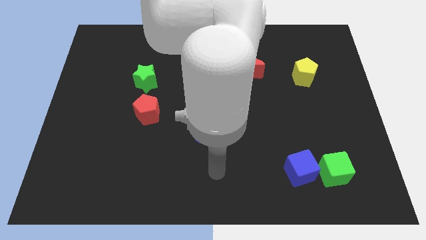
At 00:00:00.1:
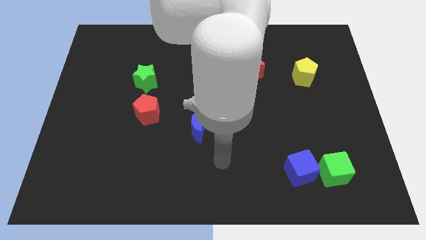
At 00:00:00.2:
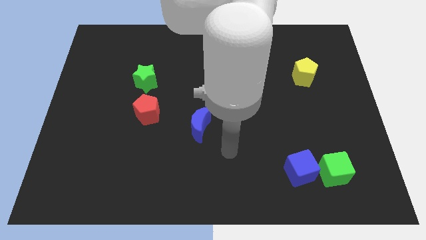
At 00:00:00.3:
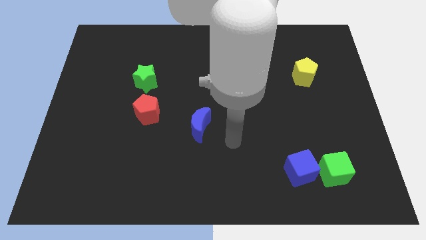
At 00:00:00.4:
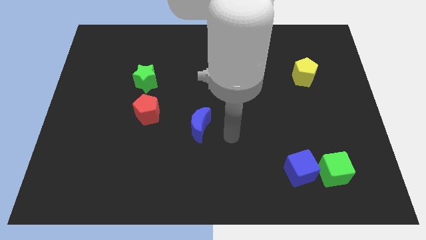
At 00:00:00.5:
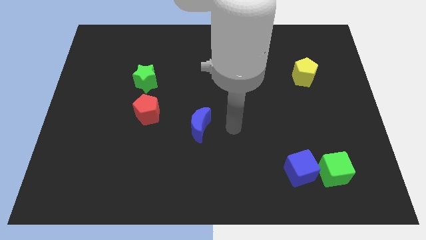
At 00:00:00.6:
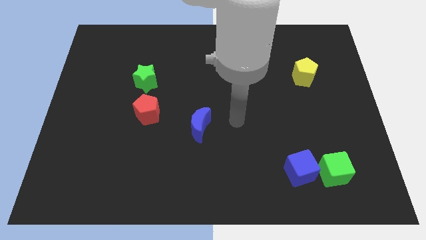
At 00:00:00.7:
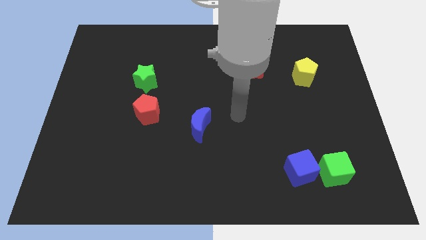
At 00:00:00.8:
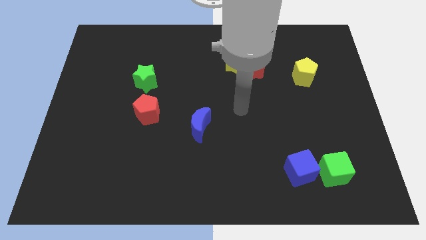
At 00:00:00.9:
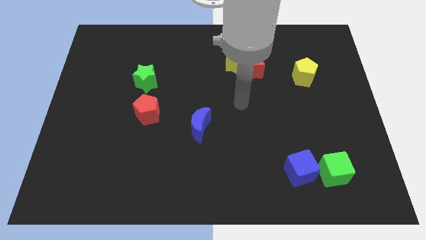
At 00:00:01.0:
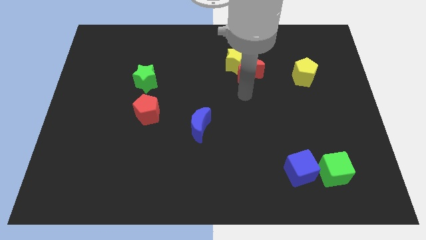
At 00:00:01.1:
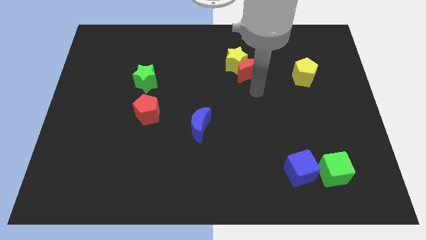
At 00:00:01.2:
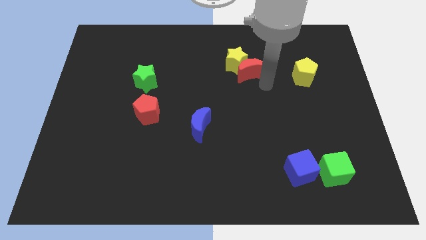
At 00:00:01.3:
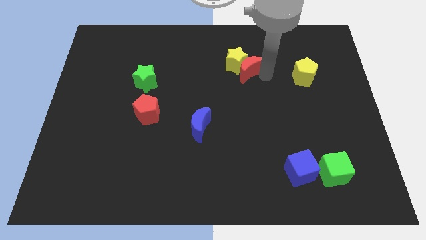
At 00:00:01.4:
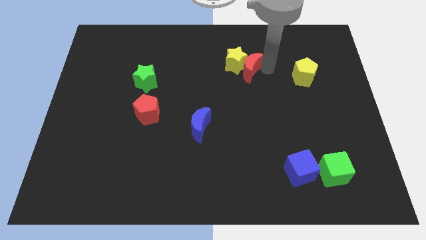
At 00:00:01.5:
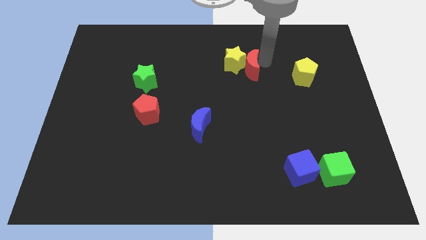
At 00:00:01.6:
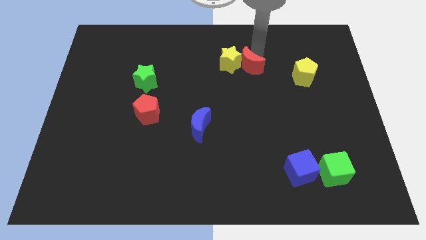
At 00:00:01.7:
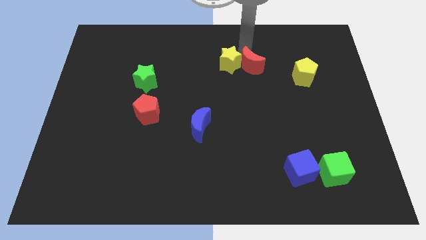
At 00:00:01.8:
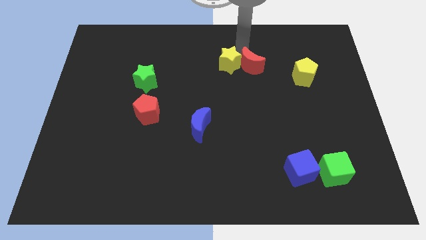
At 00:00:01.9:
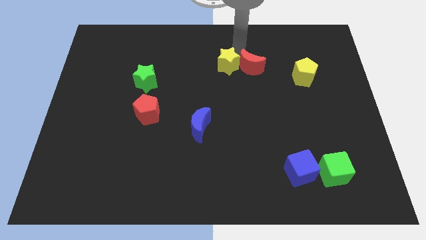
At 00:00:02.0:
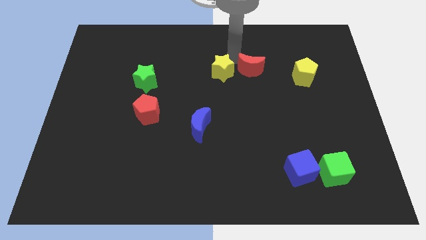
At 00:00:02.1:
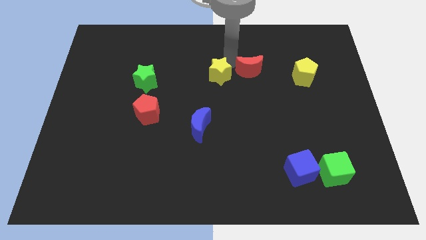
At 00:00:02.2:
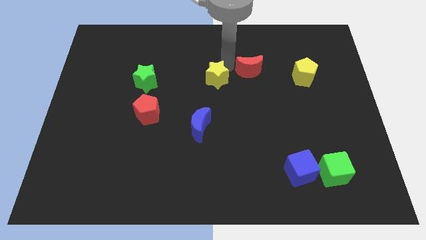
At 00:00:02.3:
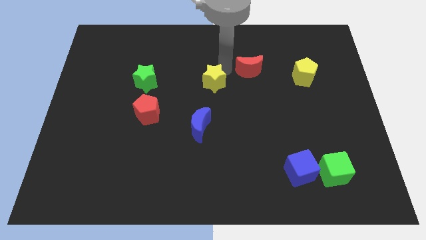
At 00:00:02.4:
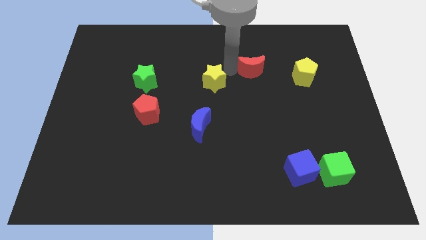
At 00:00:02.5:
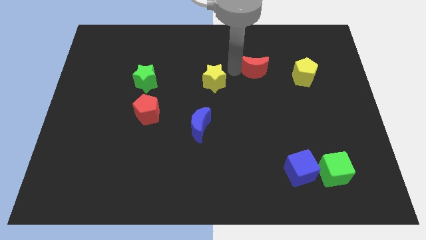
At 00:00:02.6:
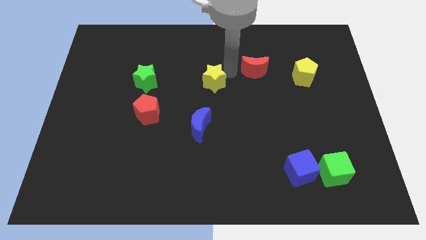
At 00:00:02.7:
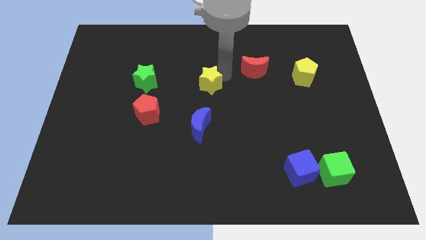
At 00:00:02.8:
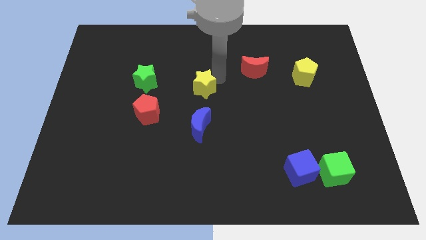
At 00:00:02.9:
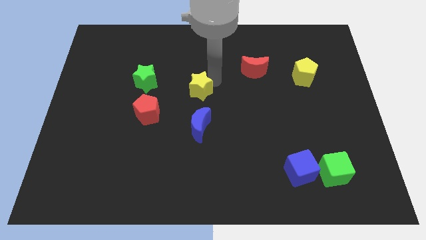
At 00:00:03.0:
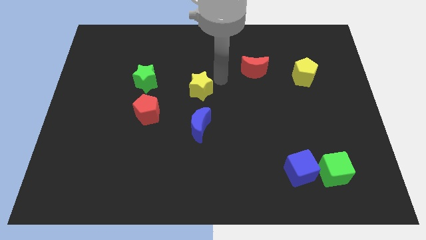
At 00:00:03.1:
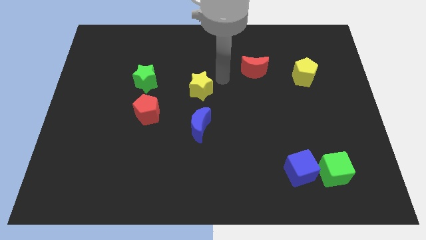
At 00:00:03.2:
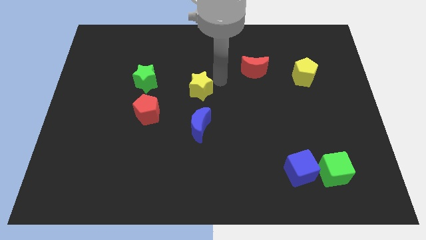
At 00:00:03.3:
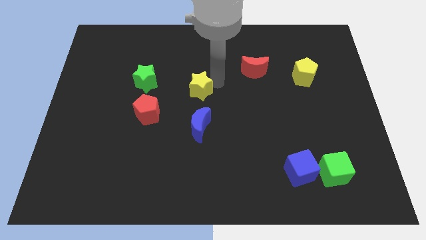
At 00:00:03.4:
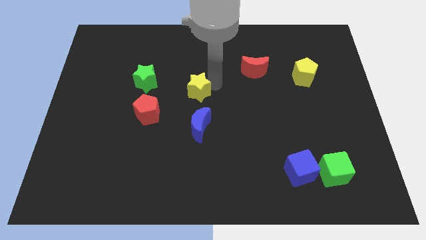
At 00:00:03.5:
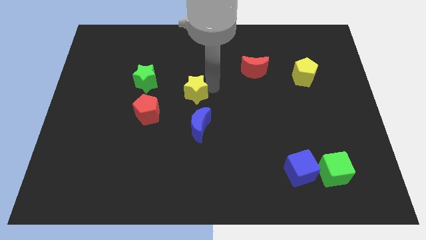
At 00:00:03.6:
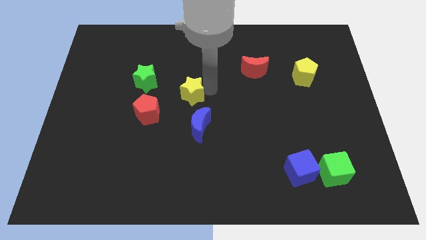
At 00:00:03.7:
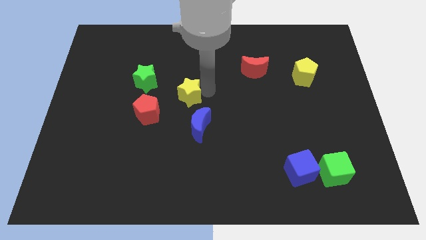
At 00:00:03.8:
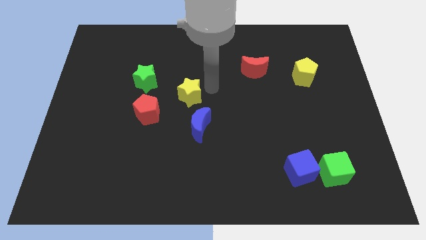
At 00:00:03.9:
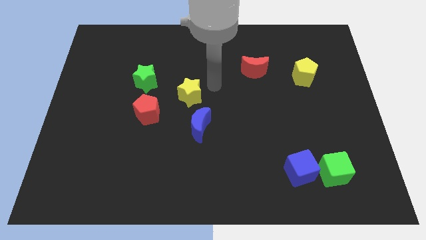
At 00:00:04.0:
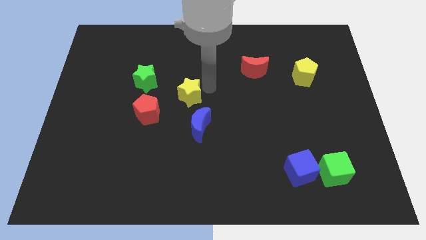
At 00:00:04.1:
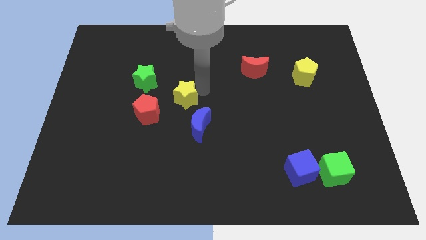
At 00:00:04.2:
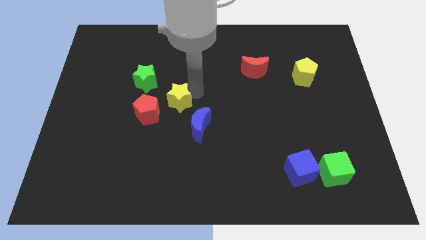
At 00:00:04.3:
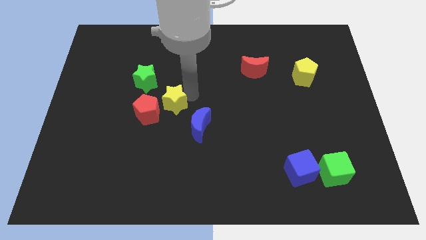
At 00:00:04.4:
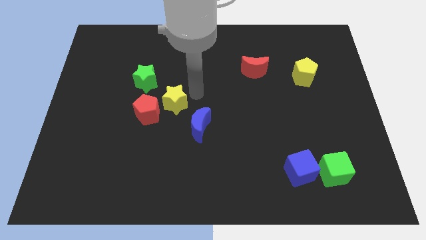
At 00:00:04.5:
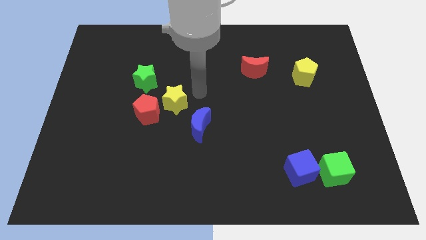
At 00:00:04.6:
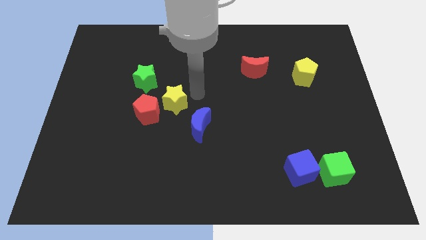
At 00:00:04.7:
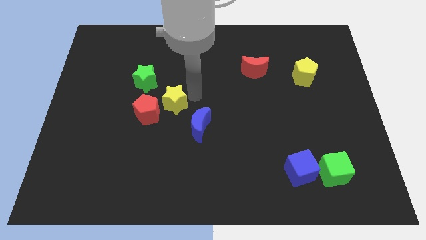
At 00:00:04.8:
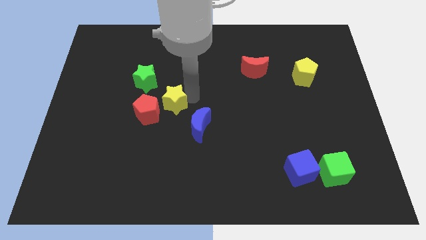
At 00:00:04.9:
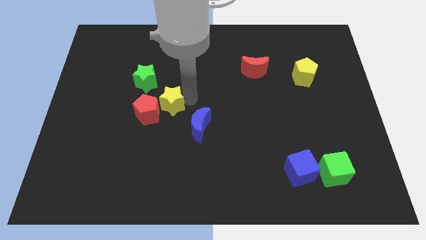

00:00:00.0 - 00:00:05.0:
push the yellow star next to the red pentagon

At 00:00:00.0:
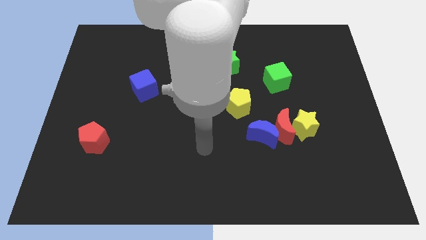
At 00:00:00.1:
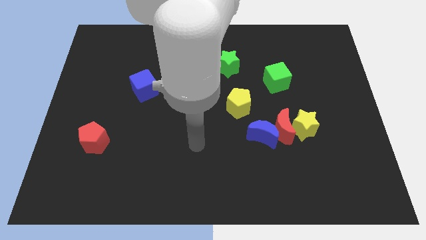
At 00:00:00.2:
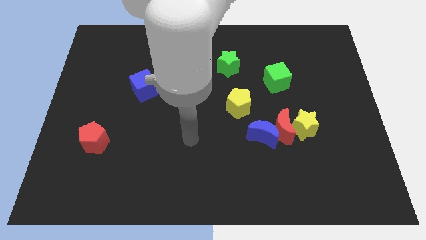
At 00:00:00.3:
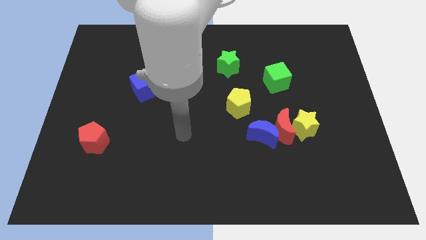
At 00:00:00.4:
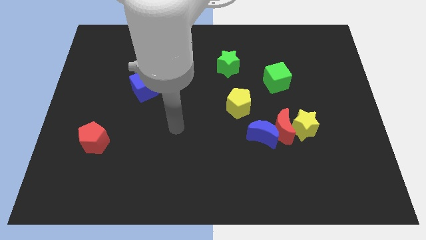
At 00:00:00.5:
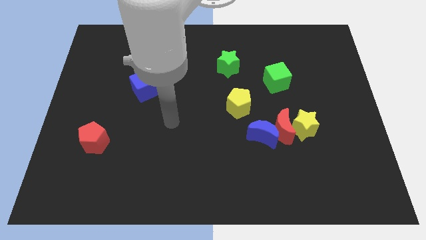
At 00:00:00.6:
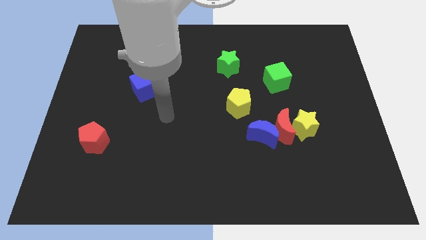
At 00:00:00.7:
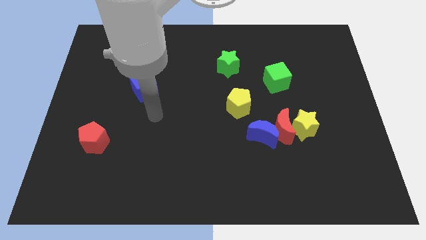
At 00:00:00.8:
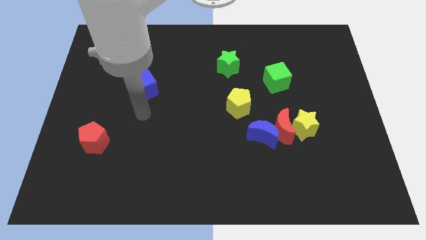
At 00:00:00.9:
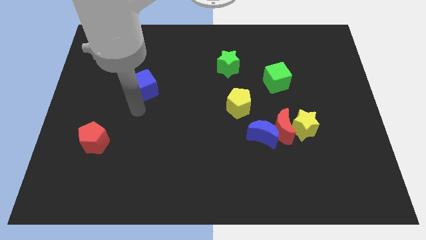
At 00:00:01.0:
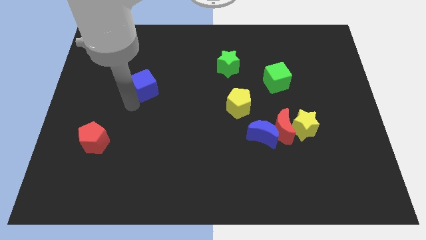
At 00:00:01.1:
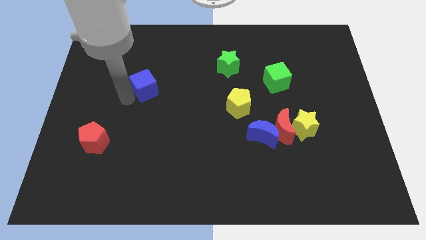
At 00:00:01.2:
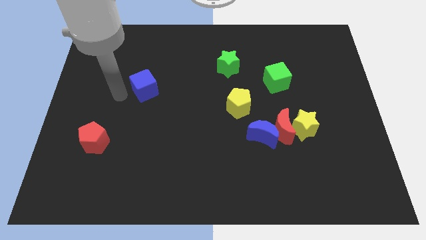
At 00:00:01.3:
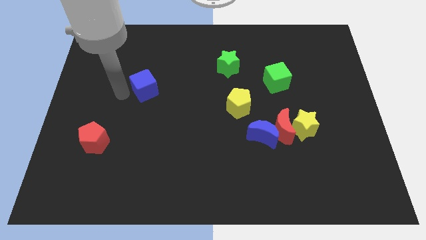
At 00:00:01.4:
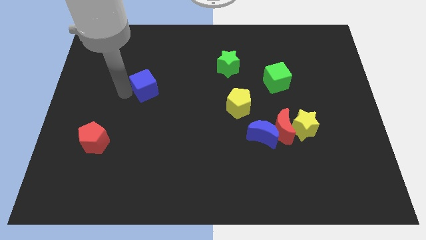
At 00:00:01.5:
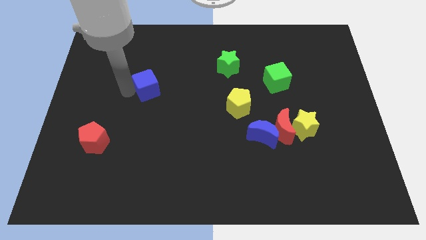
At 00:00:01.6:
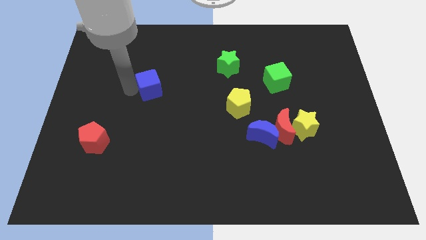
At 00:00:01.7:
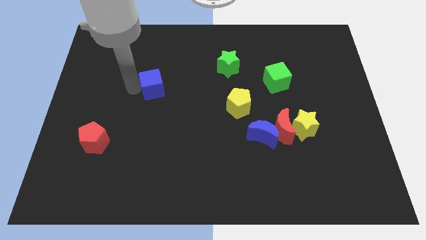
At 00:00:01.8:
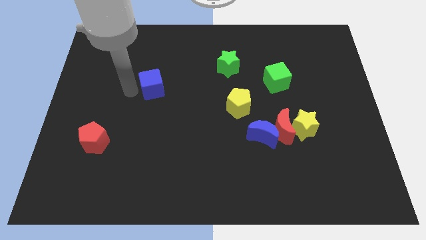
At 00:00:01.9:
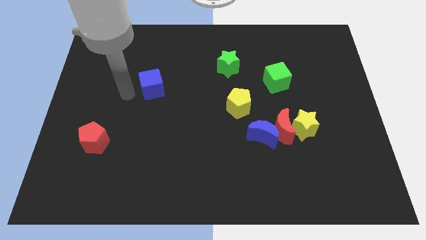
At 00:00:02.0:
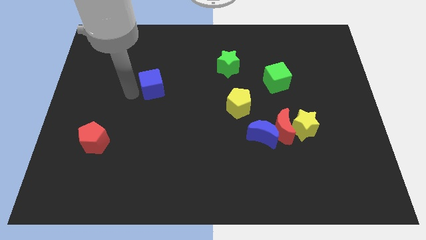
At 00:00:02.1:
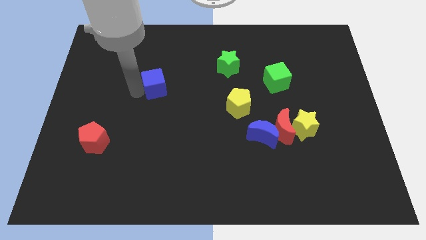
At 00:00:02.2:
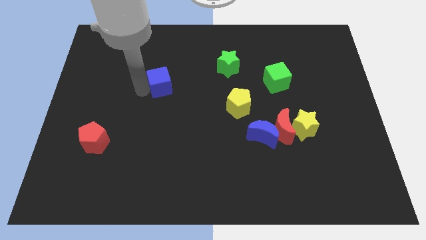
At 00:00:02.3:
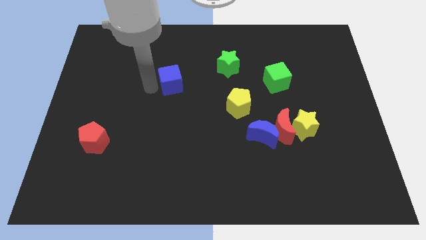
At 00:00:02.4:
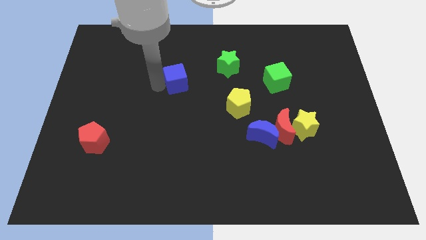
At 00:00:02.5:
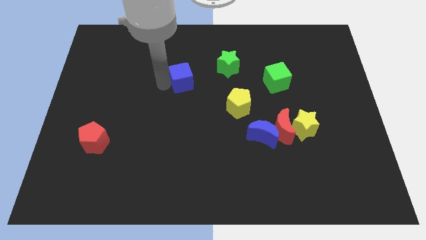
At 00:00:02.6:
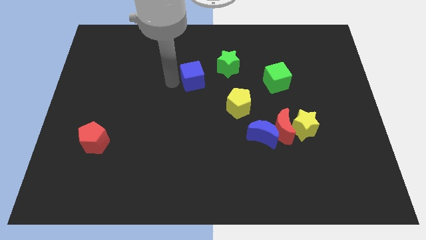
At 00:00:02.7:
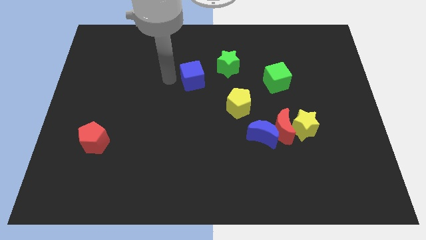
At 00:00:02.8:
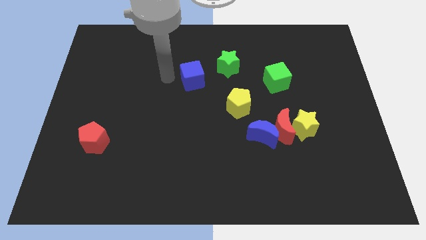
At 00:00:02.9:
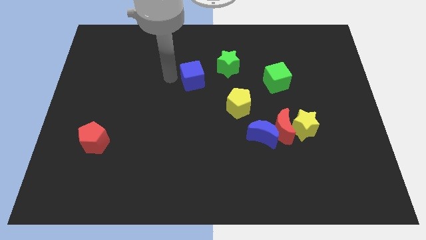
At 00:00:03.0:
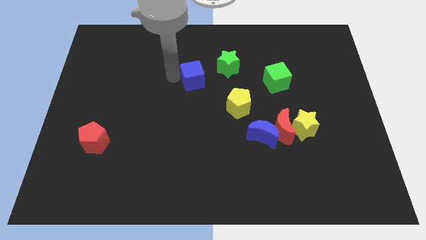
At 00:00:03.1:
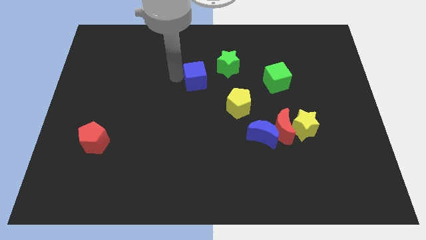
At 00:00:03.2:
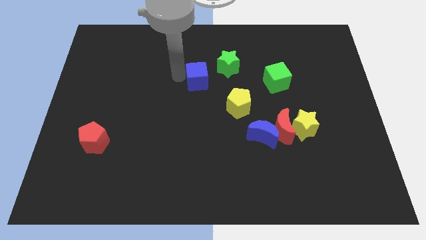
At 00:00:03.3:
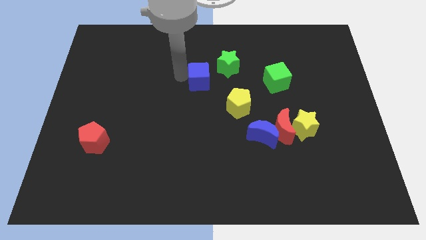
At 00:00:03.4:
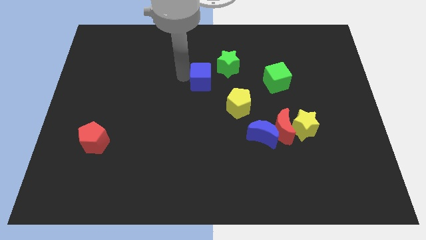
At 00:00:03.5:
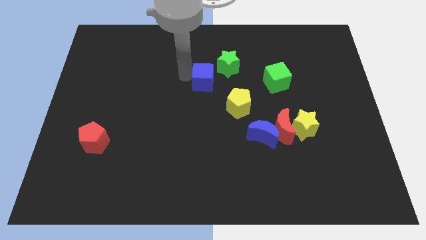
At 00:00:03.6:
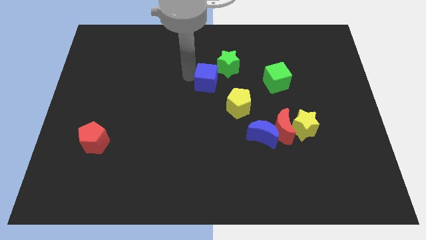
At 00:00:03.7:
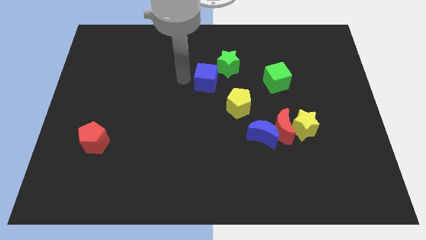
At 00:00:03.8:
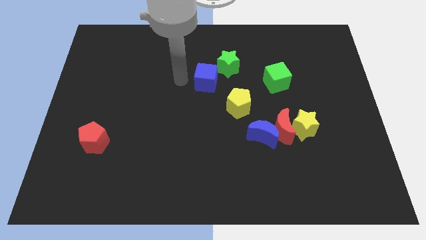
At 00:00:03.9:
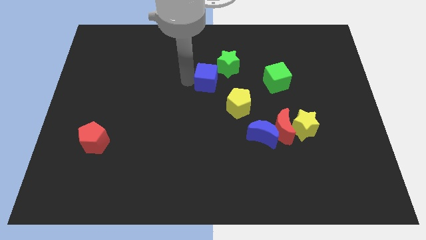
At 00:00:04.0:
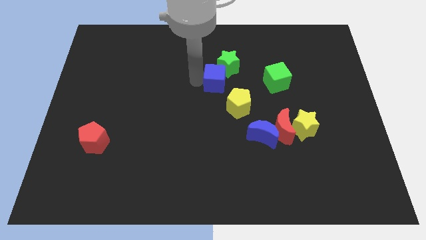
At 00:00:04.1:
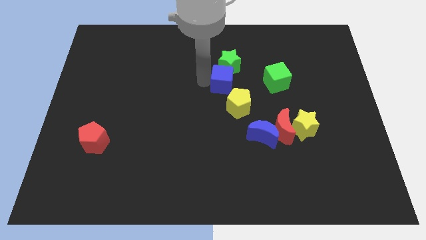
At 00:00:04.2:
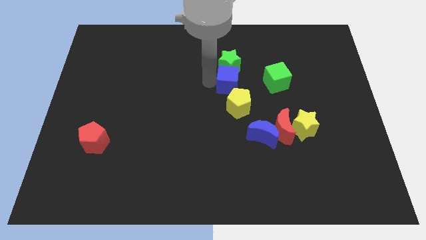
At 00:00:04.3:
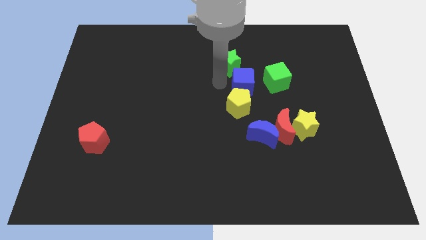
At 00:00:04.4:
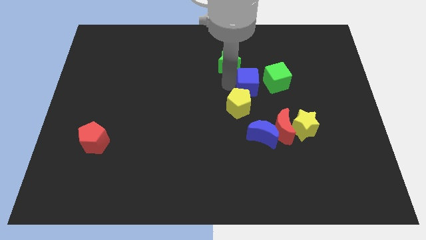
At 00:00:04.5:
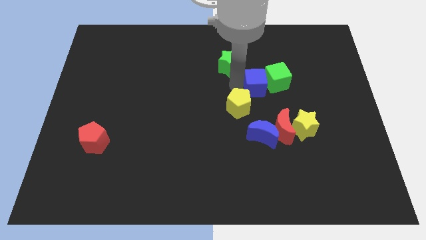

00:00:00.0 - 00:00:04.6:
slide the blue cube towards the green cube
